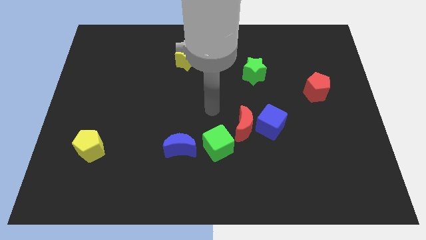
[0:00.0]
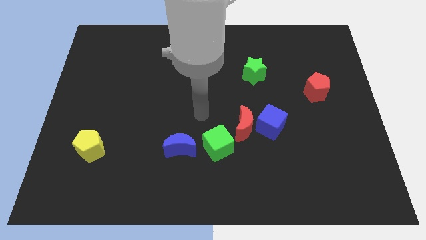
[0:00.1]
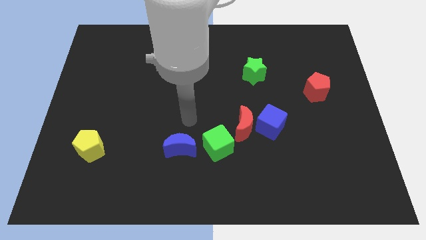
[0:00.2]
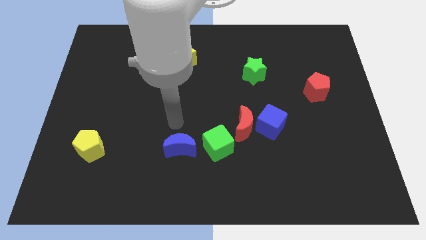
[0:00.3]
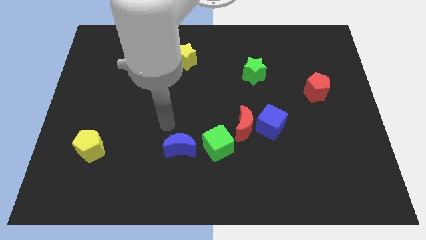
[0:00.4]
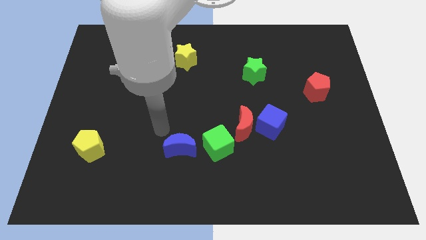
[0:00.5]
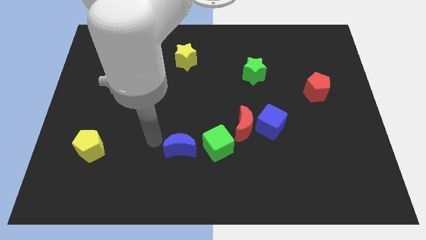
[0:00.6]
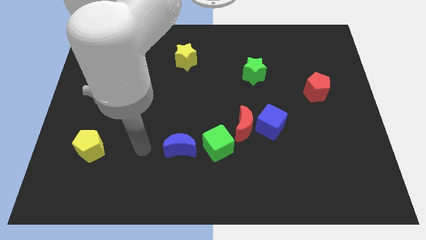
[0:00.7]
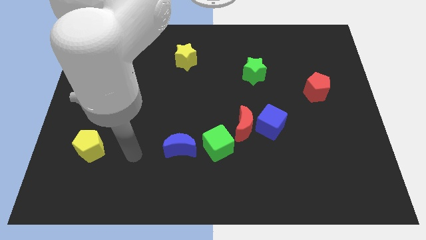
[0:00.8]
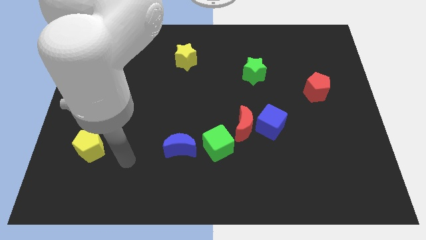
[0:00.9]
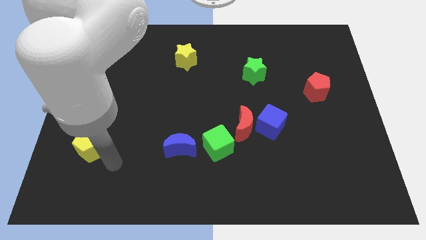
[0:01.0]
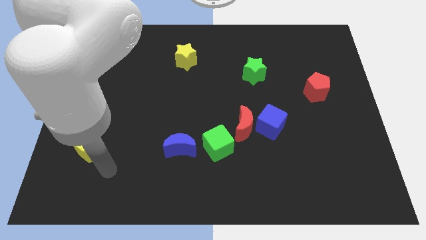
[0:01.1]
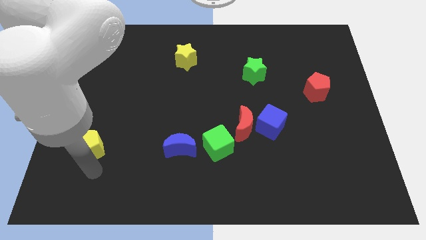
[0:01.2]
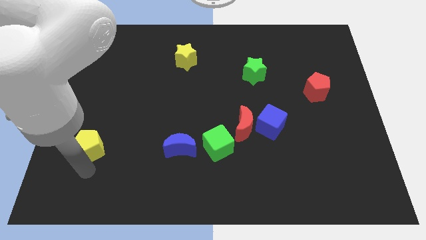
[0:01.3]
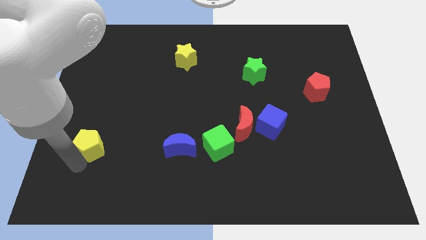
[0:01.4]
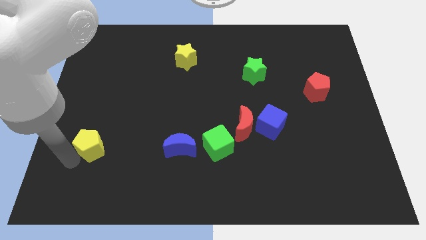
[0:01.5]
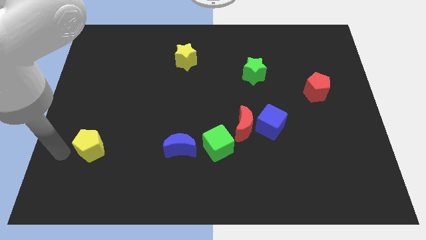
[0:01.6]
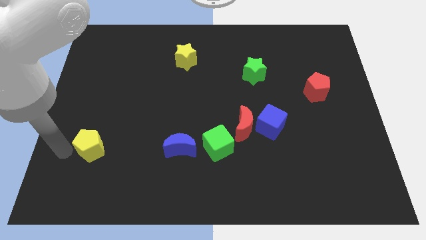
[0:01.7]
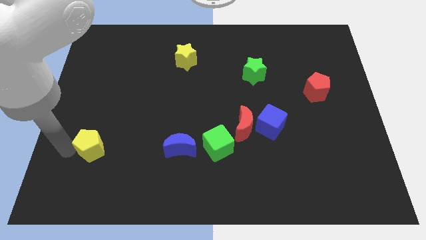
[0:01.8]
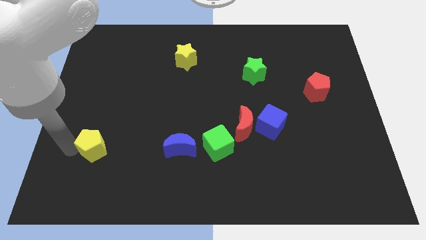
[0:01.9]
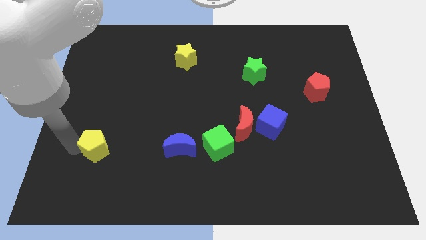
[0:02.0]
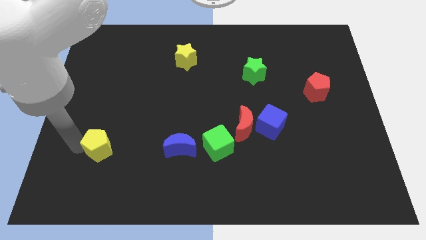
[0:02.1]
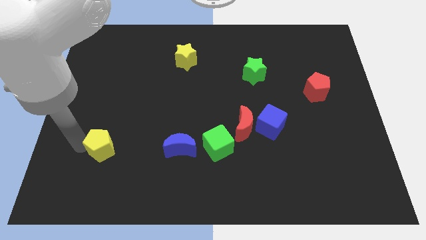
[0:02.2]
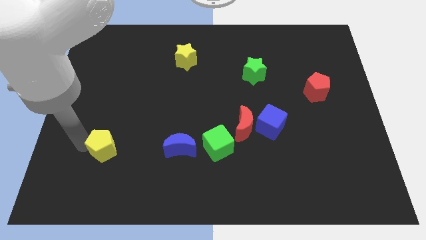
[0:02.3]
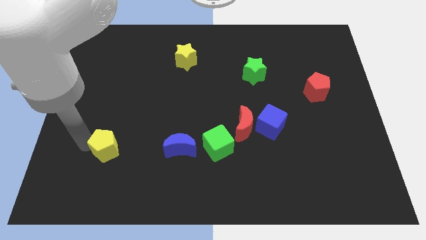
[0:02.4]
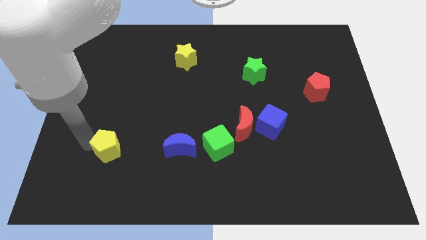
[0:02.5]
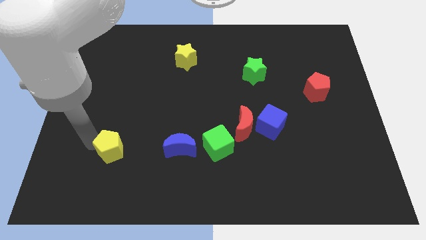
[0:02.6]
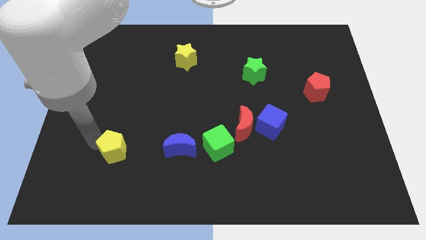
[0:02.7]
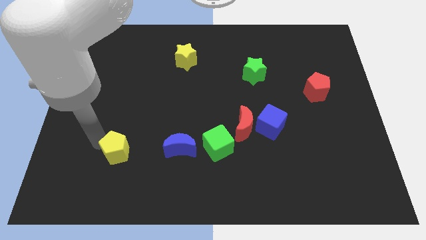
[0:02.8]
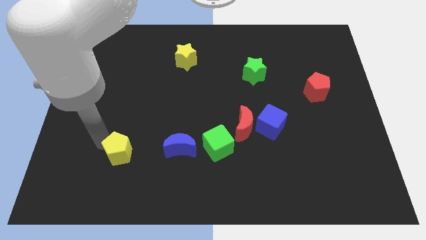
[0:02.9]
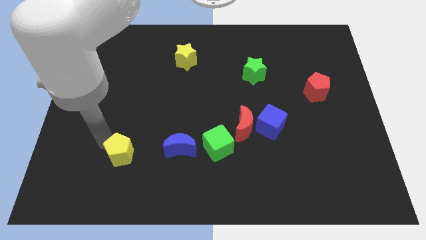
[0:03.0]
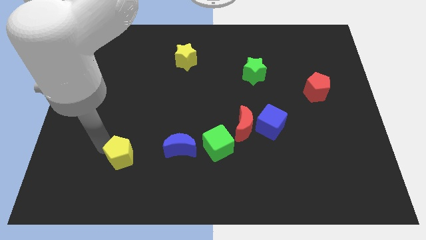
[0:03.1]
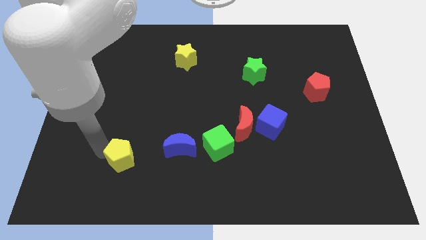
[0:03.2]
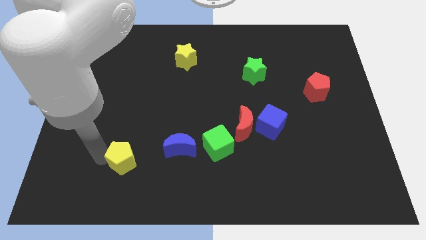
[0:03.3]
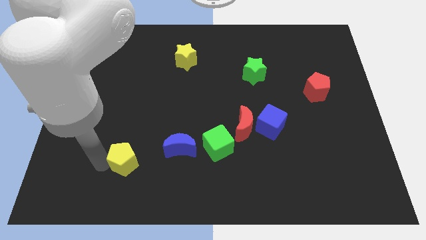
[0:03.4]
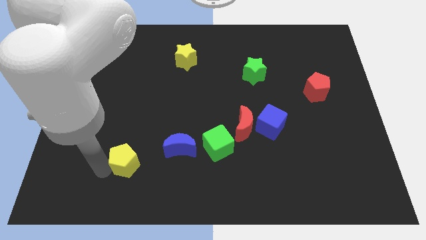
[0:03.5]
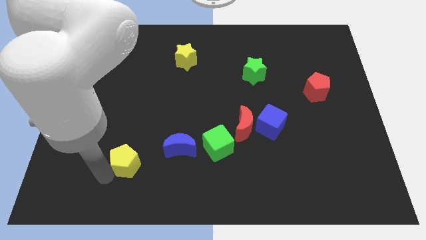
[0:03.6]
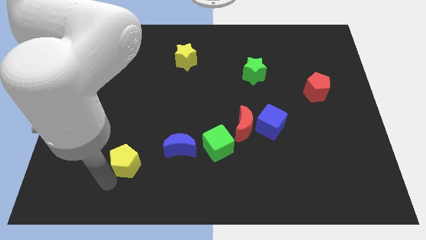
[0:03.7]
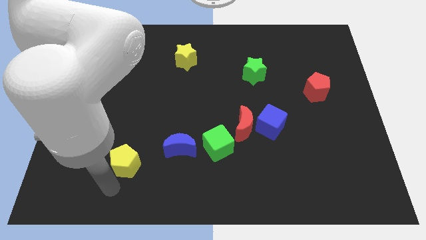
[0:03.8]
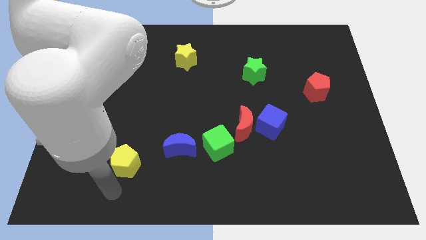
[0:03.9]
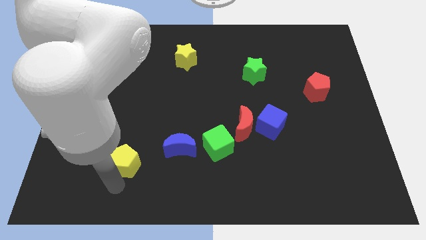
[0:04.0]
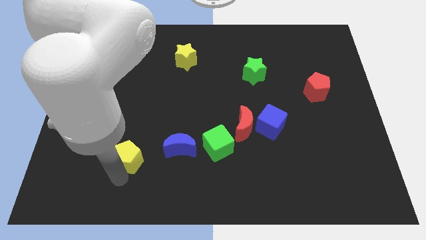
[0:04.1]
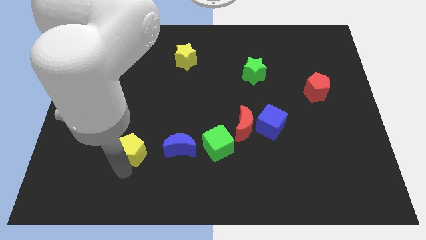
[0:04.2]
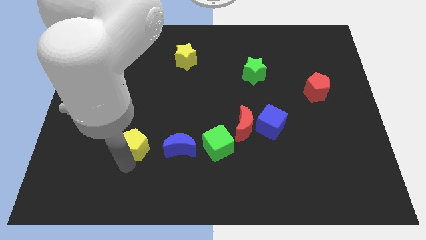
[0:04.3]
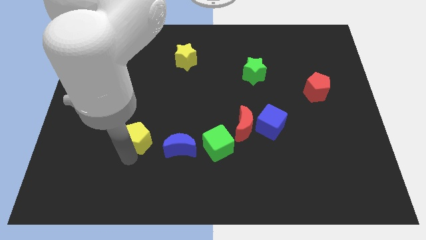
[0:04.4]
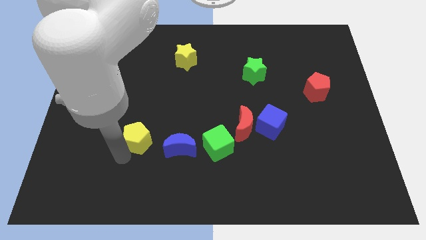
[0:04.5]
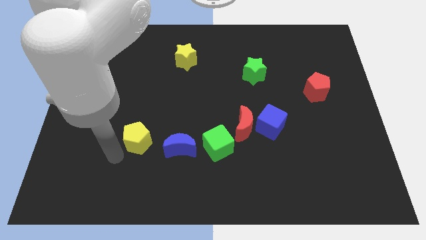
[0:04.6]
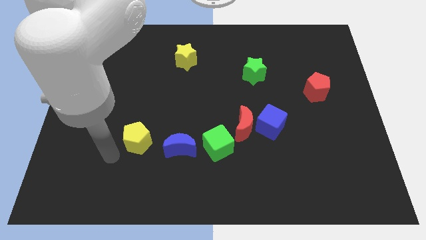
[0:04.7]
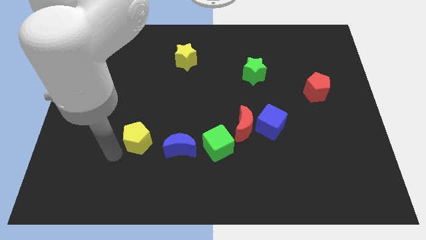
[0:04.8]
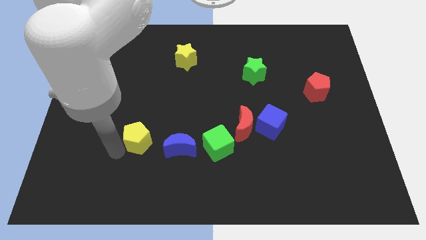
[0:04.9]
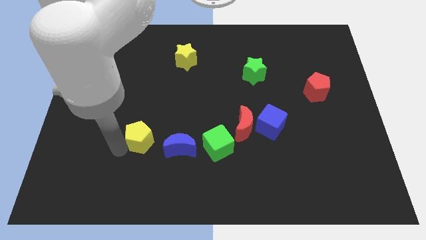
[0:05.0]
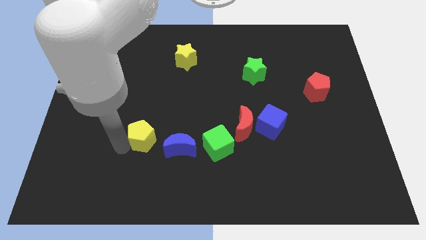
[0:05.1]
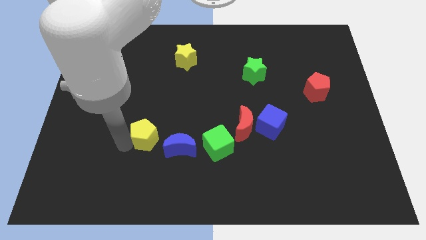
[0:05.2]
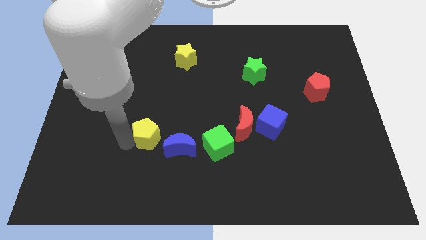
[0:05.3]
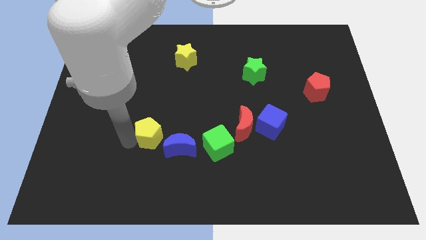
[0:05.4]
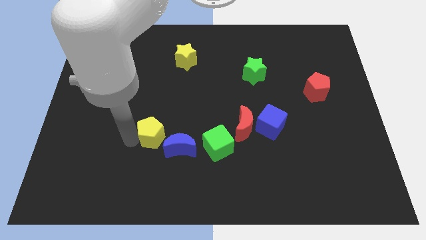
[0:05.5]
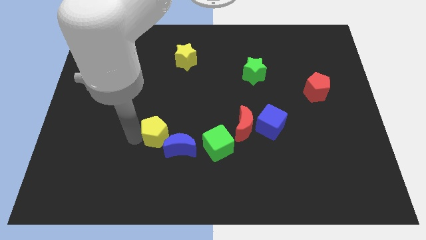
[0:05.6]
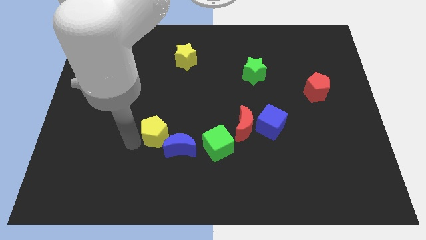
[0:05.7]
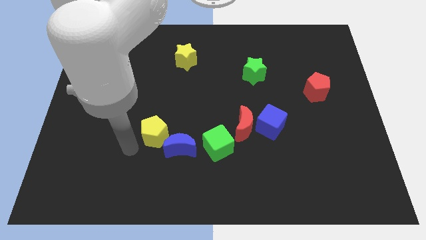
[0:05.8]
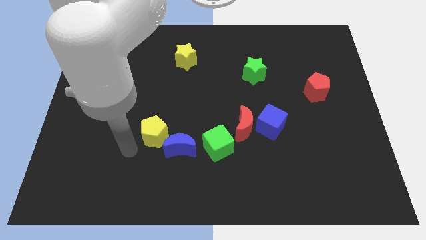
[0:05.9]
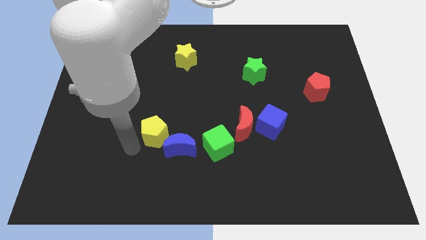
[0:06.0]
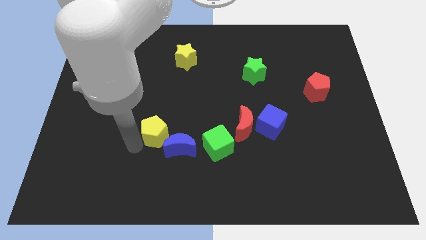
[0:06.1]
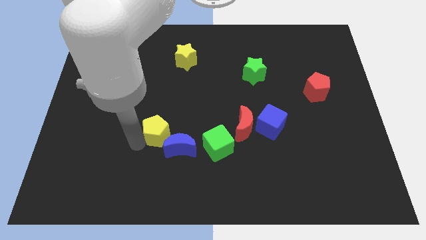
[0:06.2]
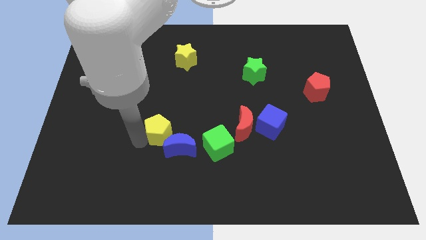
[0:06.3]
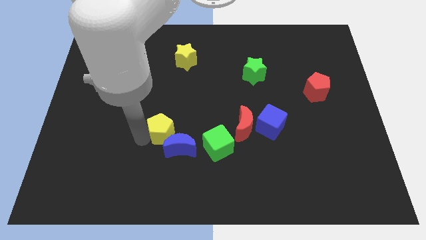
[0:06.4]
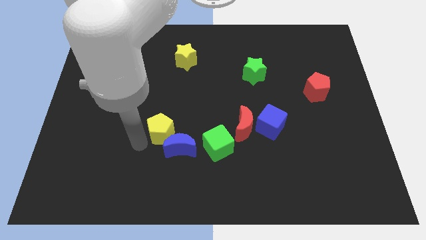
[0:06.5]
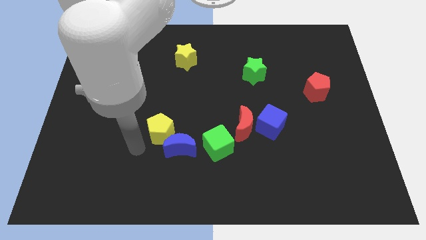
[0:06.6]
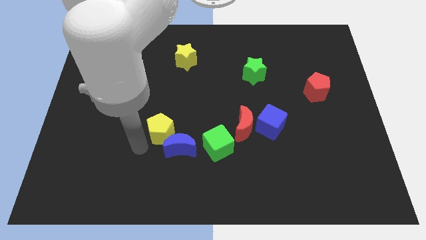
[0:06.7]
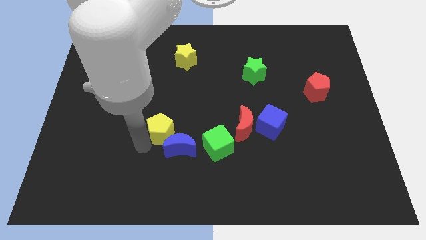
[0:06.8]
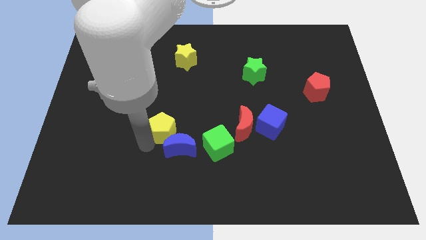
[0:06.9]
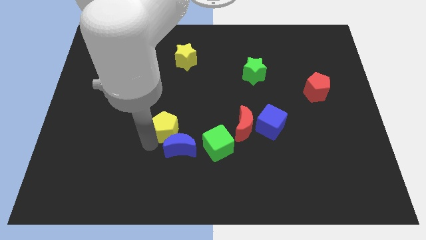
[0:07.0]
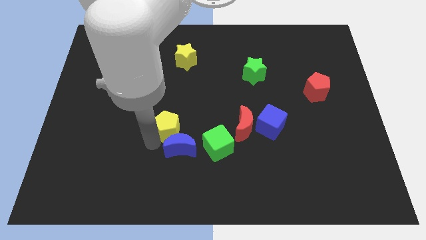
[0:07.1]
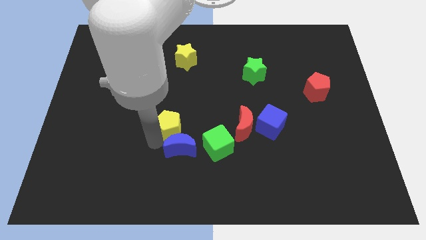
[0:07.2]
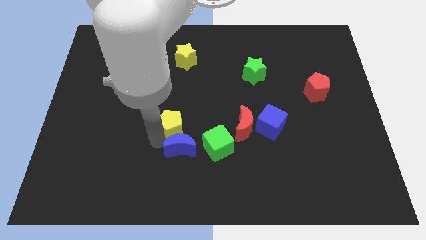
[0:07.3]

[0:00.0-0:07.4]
move the yellow pentagon to the middle
